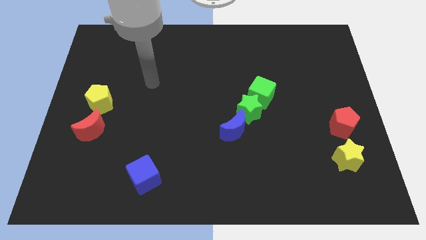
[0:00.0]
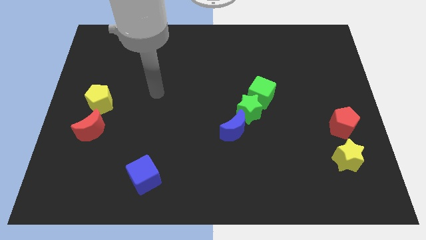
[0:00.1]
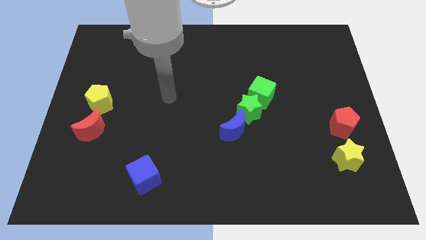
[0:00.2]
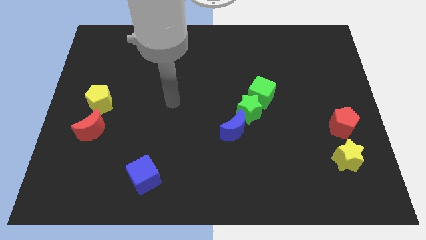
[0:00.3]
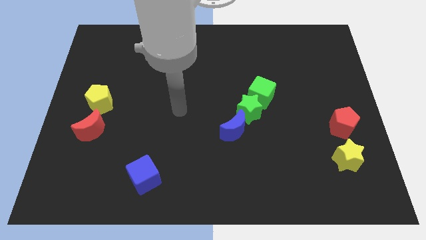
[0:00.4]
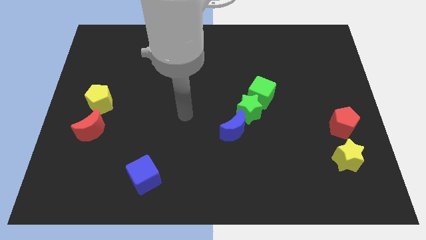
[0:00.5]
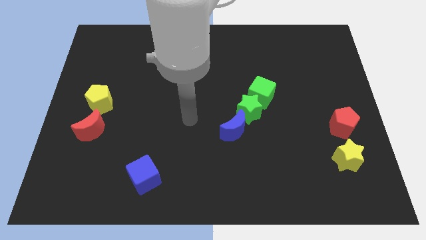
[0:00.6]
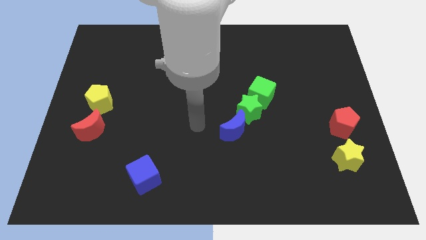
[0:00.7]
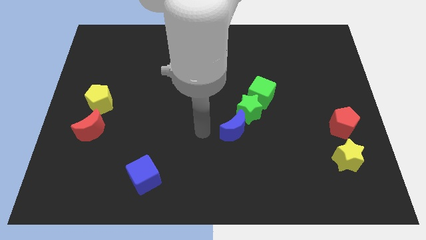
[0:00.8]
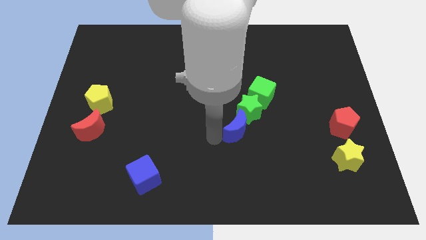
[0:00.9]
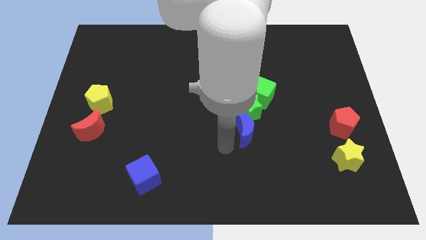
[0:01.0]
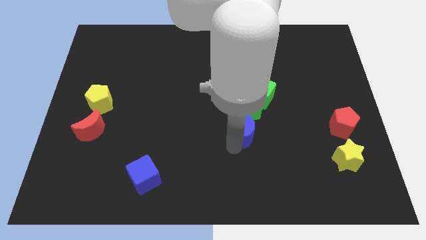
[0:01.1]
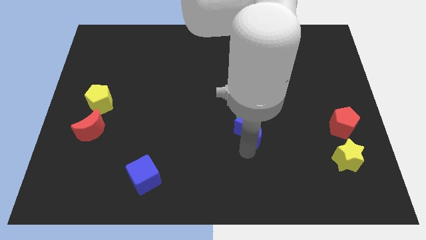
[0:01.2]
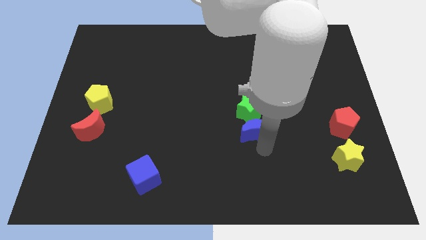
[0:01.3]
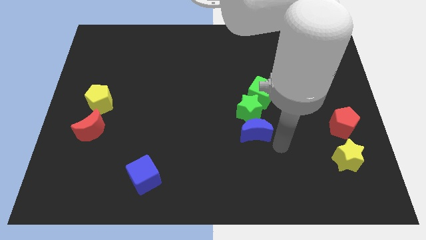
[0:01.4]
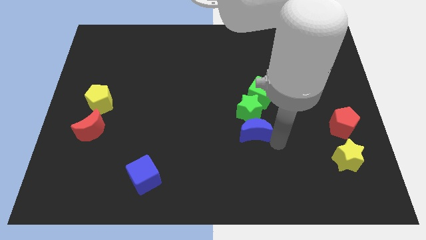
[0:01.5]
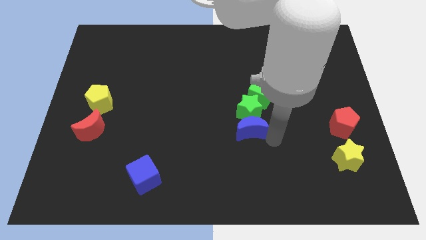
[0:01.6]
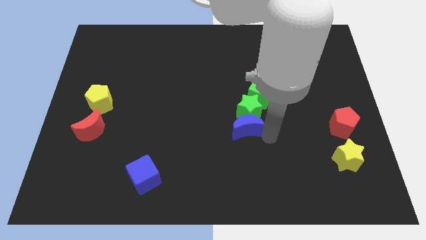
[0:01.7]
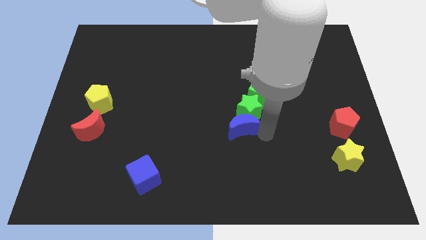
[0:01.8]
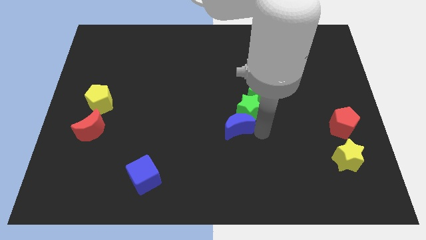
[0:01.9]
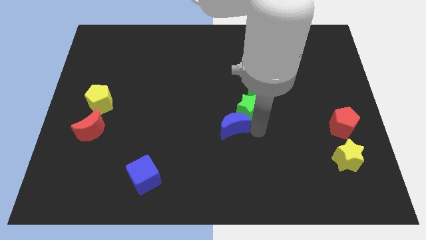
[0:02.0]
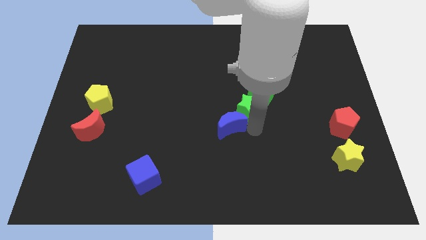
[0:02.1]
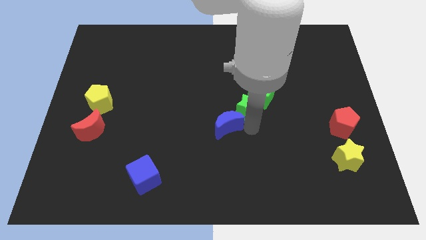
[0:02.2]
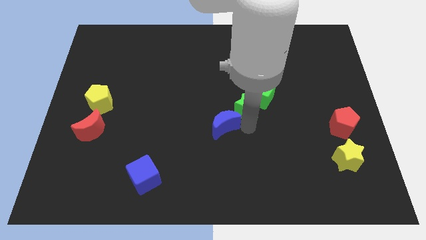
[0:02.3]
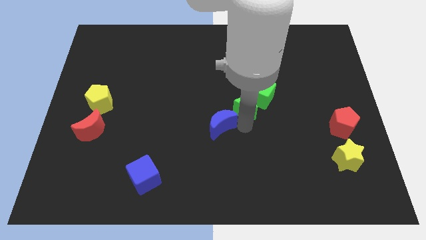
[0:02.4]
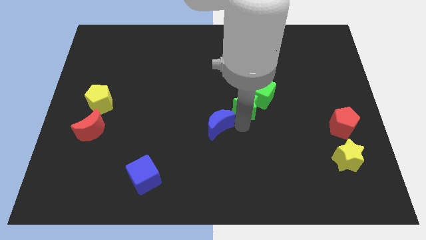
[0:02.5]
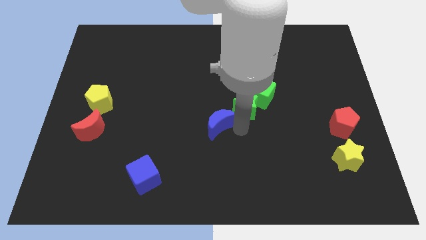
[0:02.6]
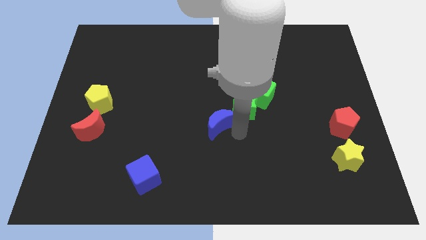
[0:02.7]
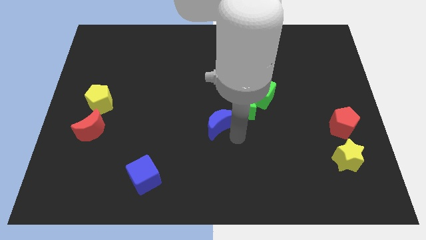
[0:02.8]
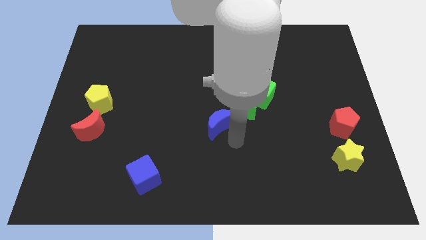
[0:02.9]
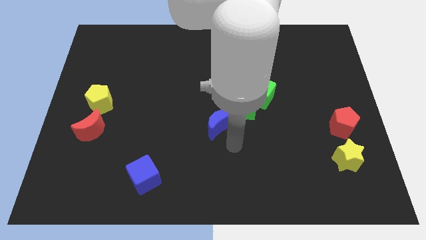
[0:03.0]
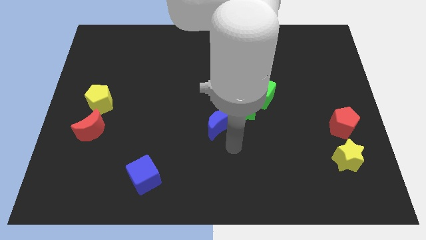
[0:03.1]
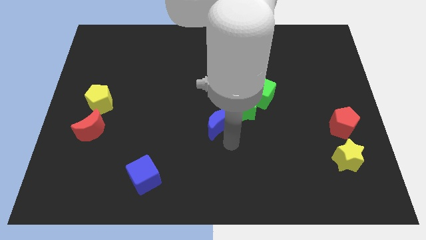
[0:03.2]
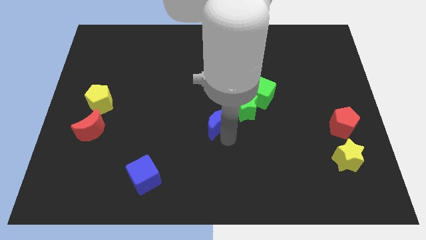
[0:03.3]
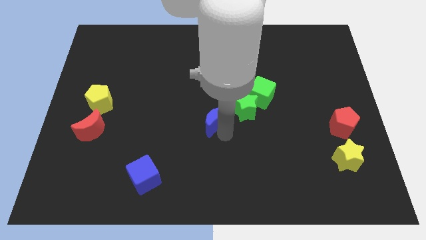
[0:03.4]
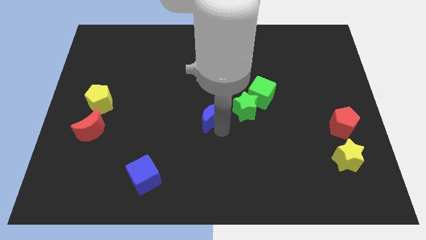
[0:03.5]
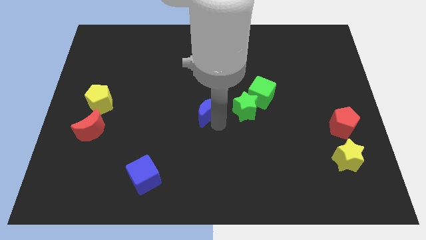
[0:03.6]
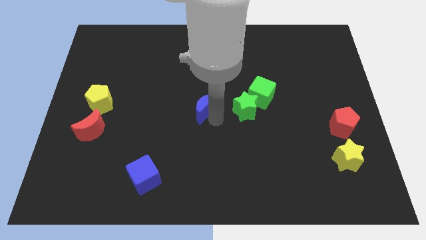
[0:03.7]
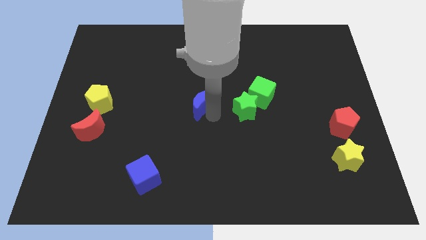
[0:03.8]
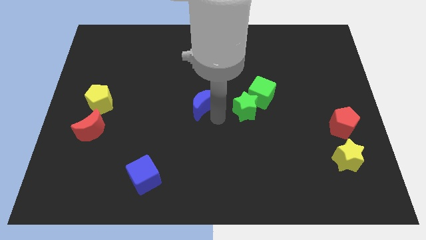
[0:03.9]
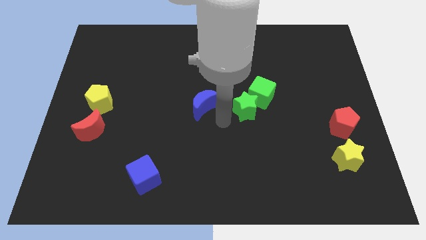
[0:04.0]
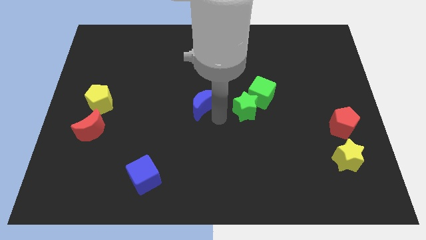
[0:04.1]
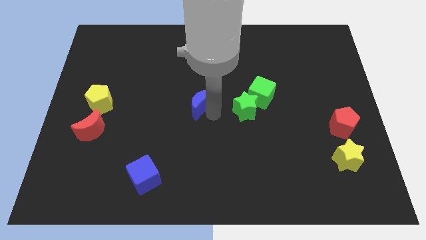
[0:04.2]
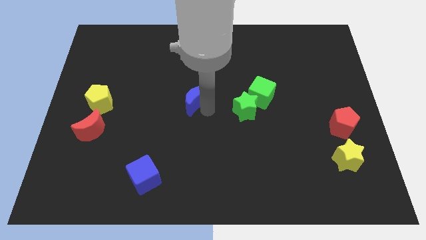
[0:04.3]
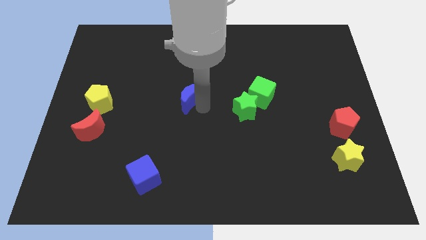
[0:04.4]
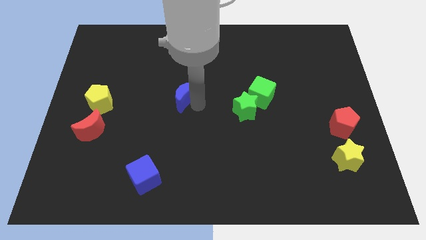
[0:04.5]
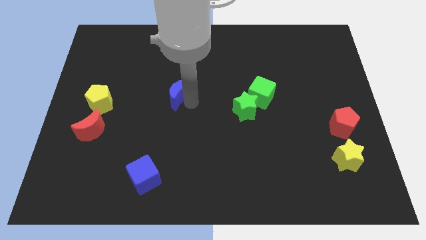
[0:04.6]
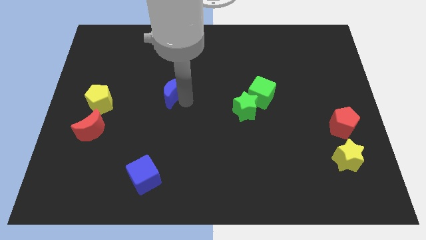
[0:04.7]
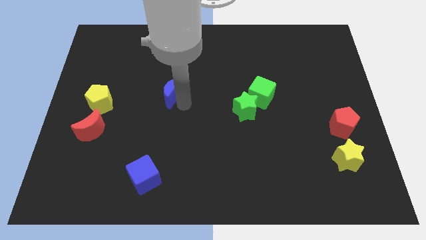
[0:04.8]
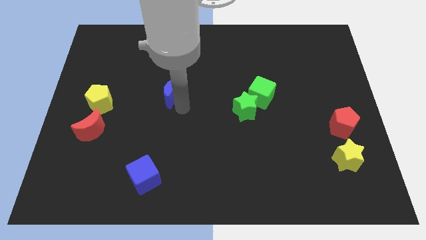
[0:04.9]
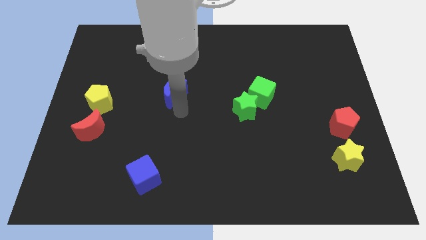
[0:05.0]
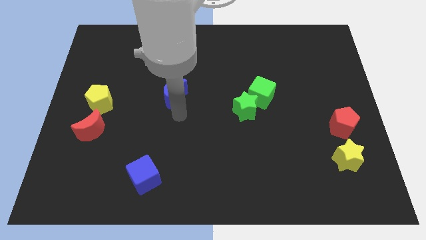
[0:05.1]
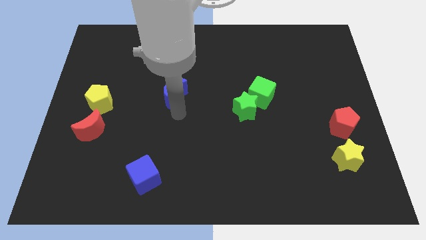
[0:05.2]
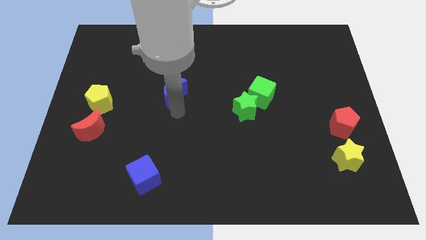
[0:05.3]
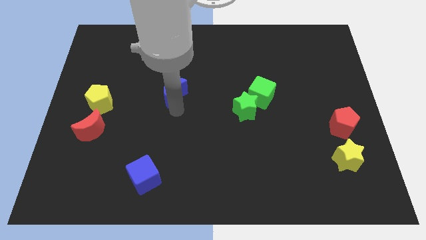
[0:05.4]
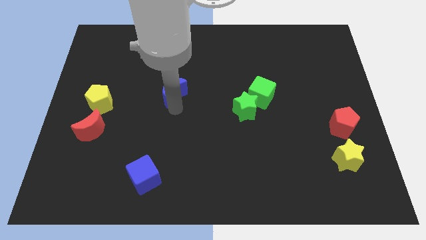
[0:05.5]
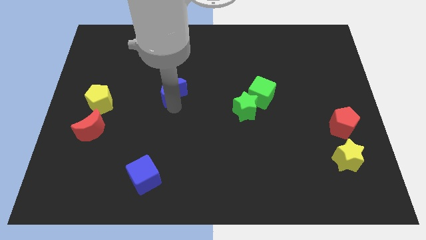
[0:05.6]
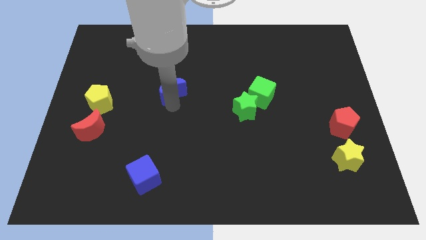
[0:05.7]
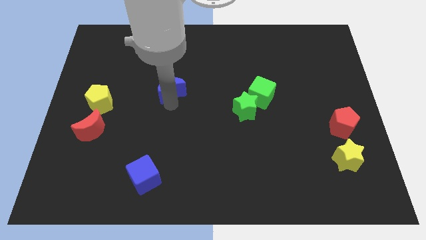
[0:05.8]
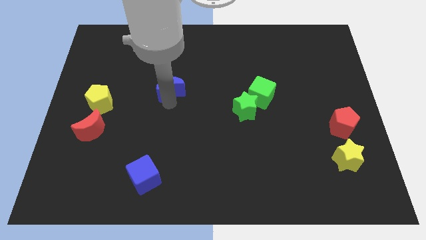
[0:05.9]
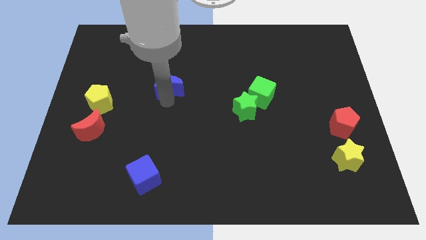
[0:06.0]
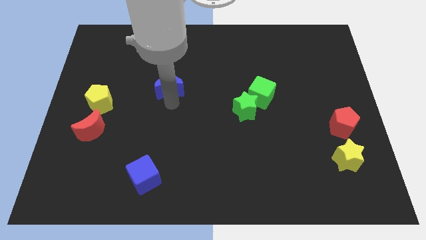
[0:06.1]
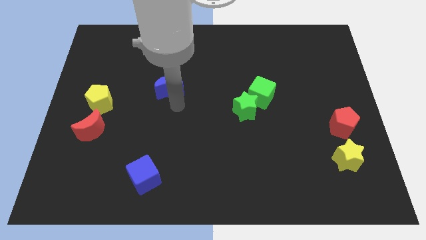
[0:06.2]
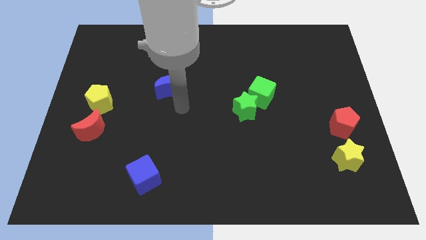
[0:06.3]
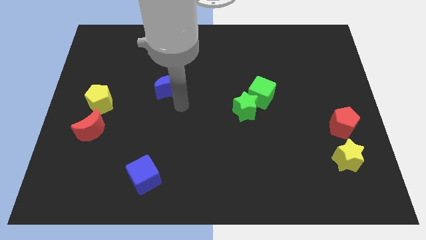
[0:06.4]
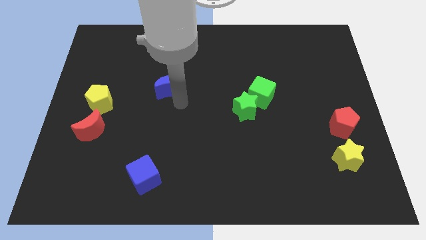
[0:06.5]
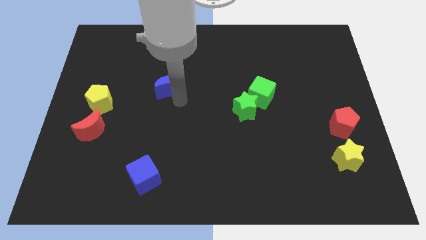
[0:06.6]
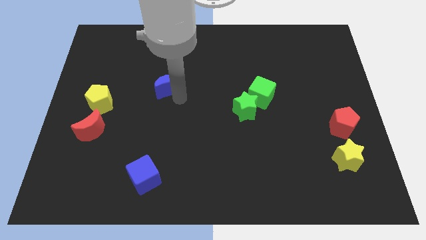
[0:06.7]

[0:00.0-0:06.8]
move the blue moon up and left

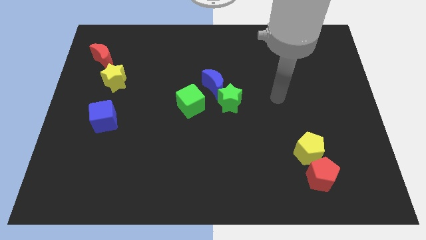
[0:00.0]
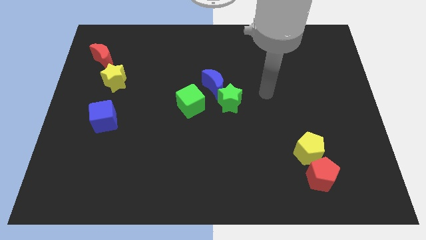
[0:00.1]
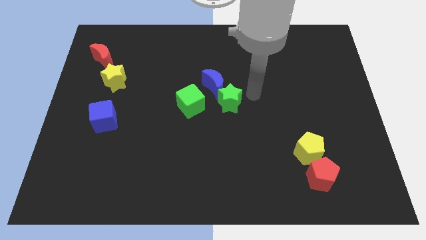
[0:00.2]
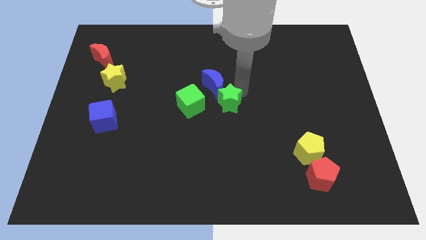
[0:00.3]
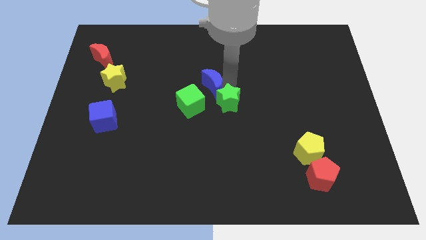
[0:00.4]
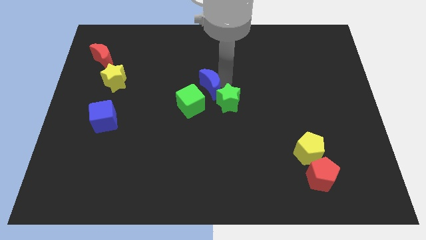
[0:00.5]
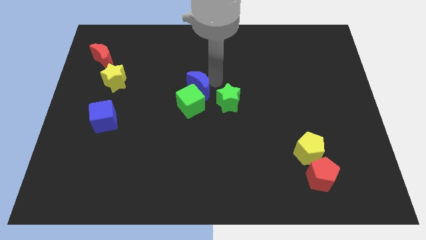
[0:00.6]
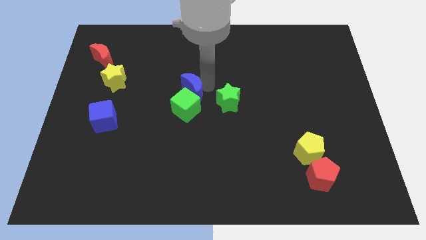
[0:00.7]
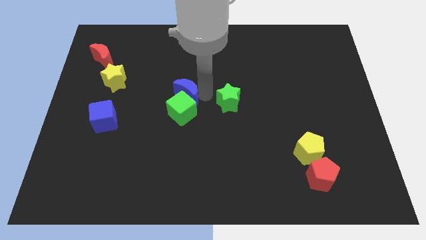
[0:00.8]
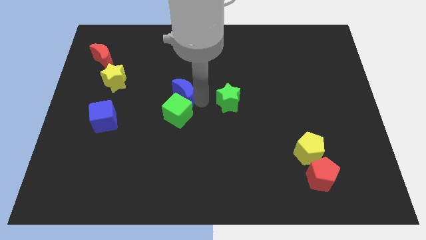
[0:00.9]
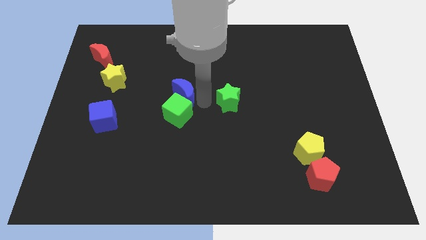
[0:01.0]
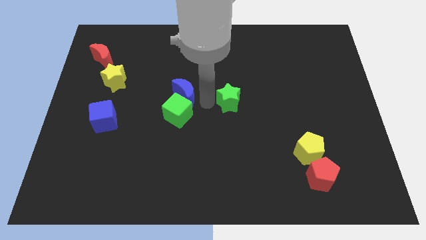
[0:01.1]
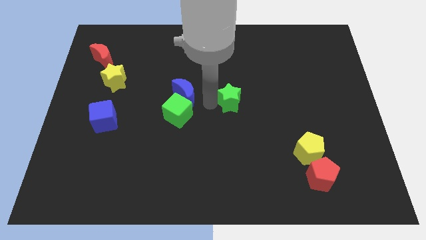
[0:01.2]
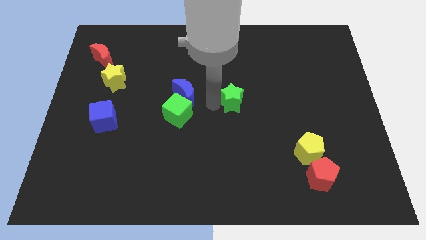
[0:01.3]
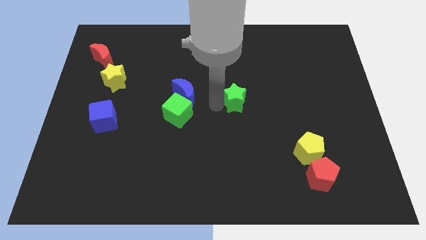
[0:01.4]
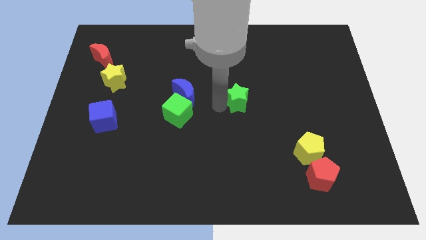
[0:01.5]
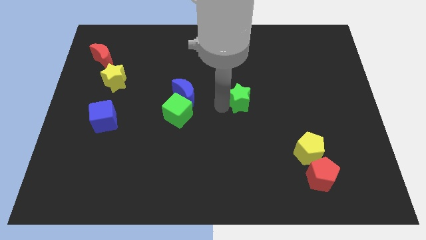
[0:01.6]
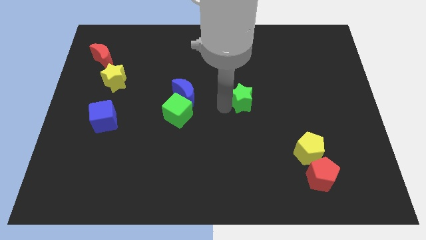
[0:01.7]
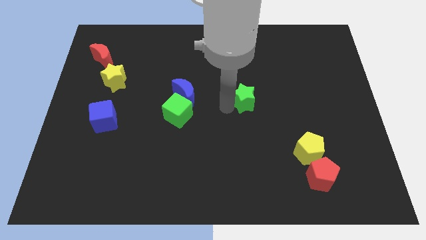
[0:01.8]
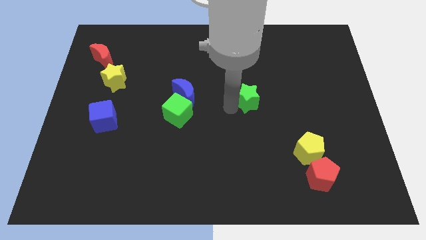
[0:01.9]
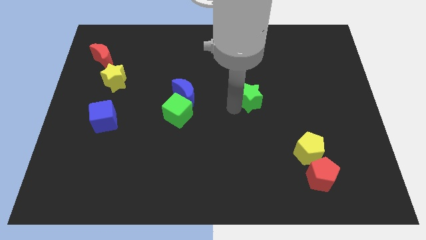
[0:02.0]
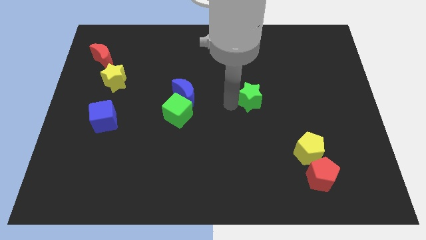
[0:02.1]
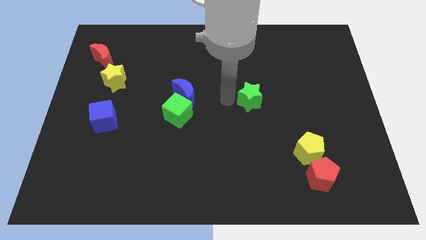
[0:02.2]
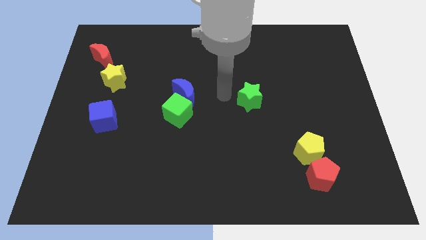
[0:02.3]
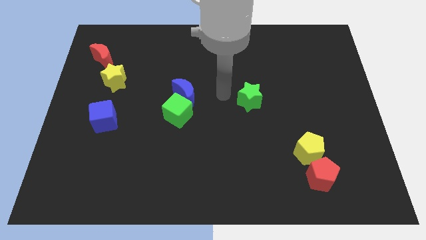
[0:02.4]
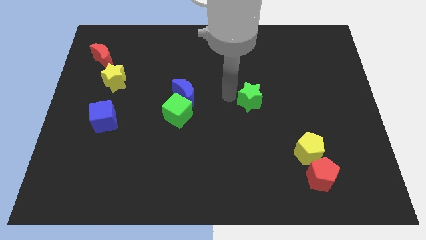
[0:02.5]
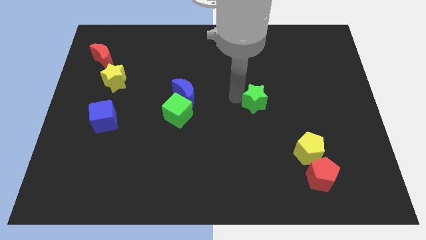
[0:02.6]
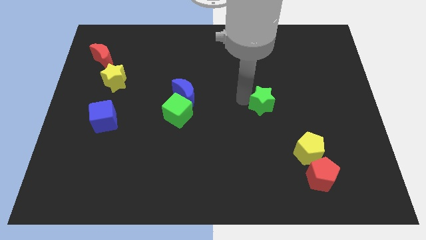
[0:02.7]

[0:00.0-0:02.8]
slightly push the green star right
